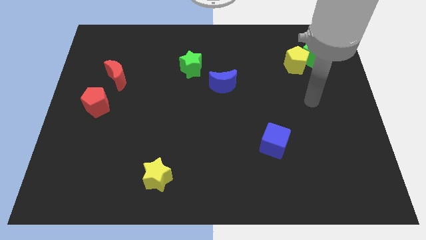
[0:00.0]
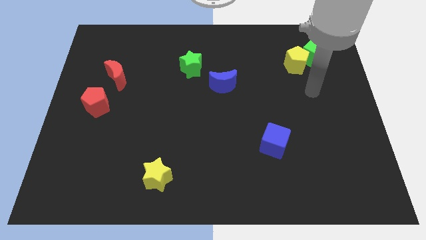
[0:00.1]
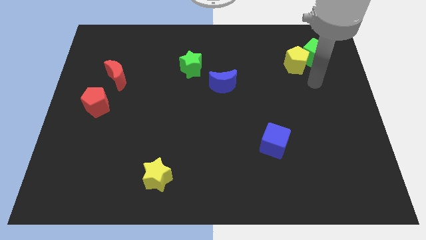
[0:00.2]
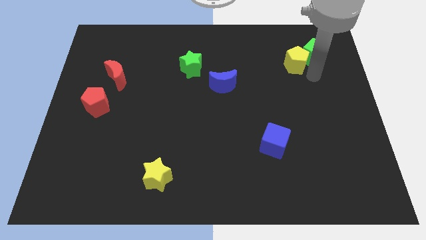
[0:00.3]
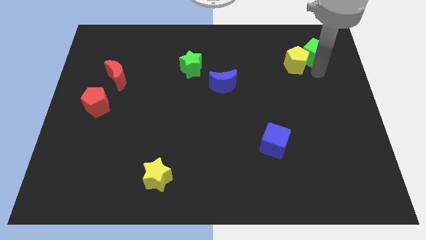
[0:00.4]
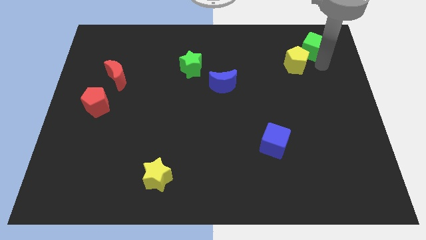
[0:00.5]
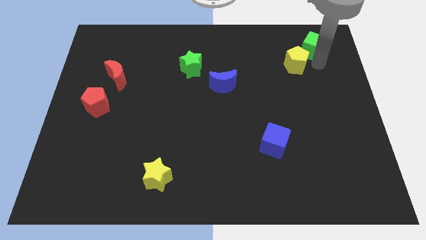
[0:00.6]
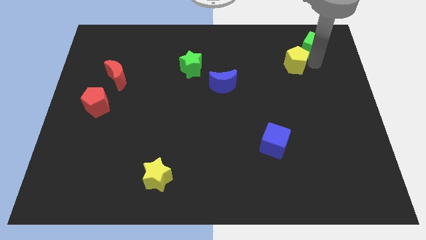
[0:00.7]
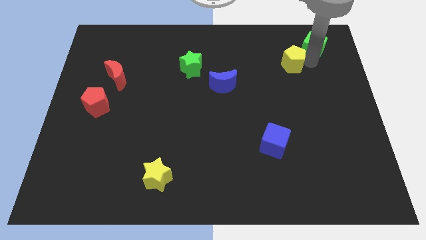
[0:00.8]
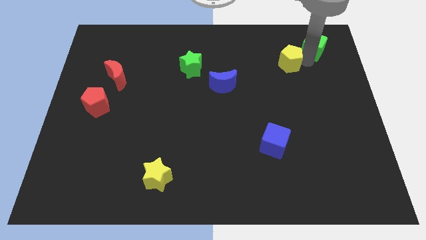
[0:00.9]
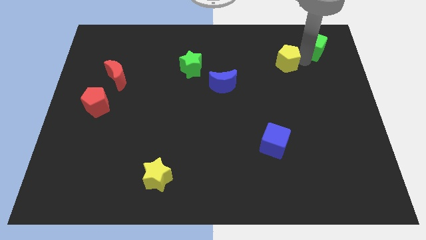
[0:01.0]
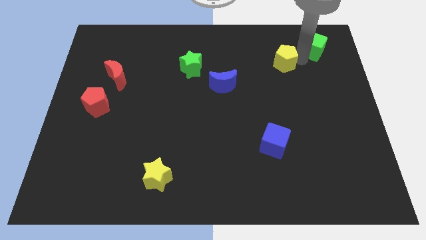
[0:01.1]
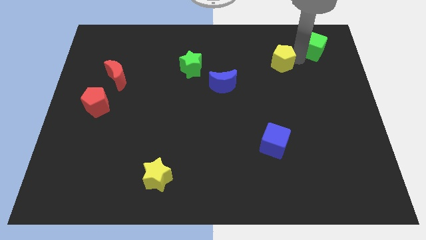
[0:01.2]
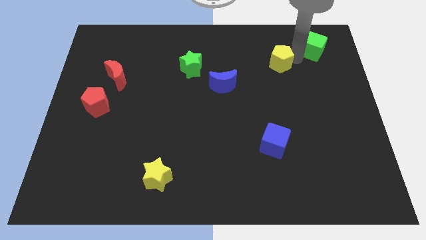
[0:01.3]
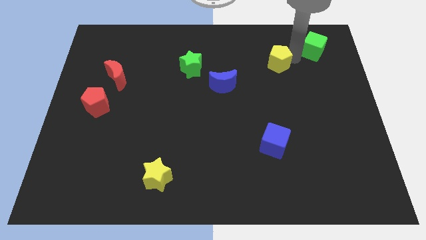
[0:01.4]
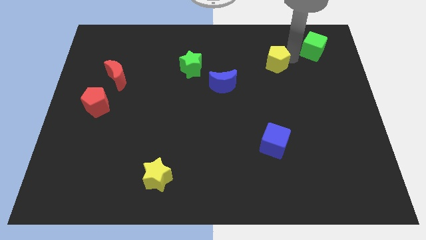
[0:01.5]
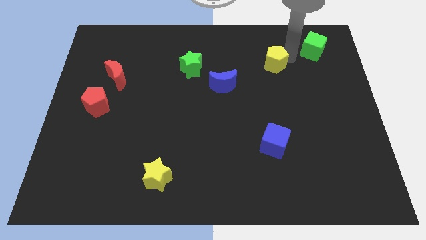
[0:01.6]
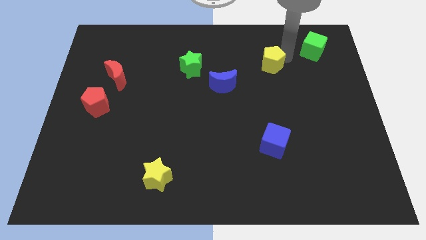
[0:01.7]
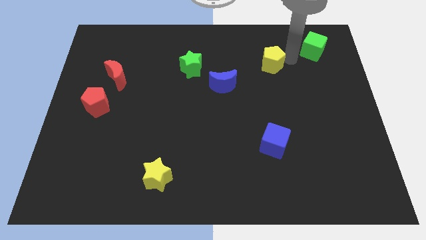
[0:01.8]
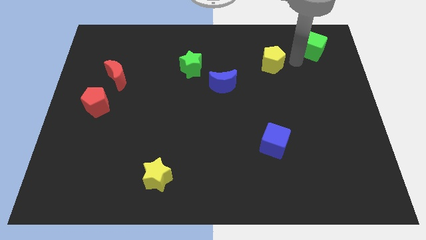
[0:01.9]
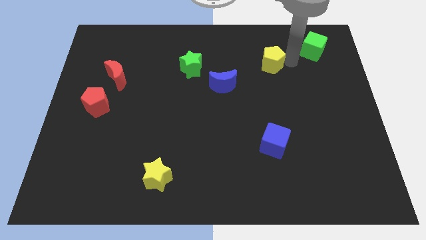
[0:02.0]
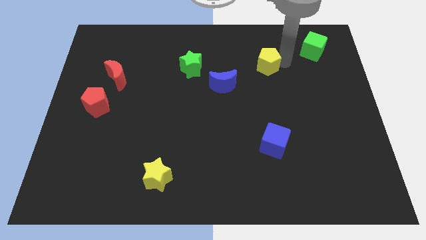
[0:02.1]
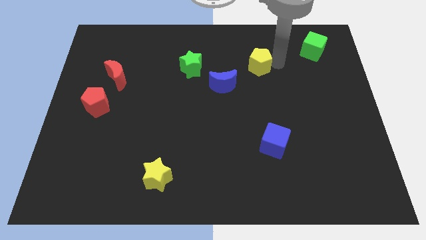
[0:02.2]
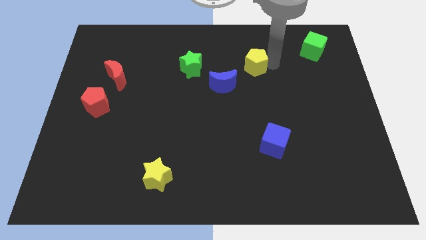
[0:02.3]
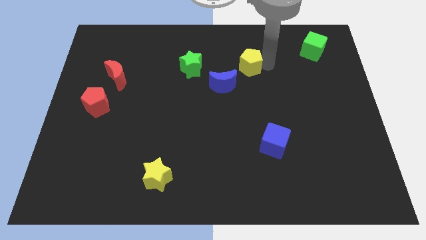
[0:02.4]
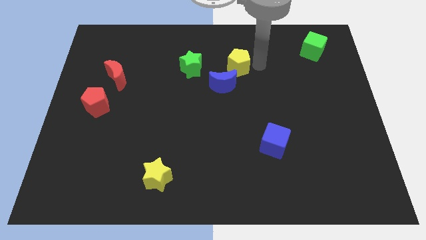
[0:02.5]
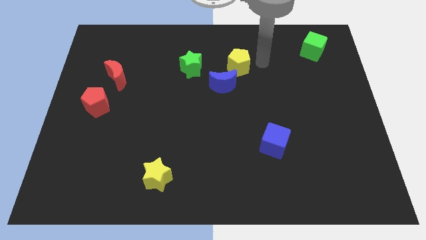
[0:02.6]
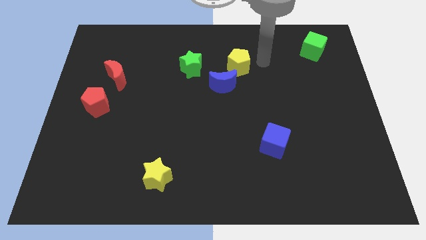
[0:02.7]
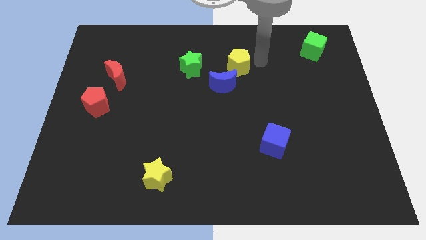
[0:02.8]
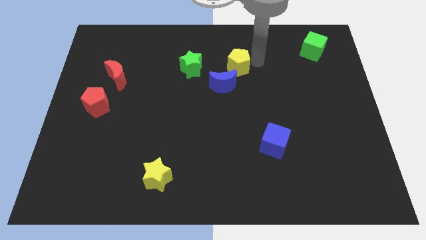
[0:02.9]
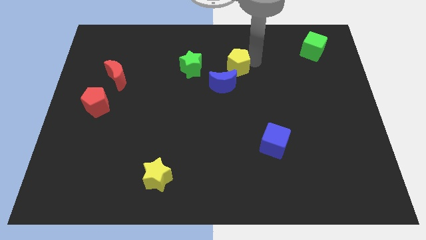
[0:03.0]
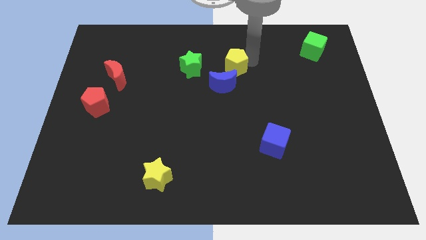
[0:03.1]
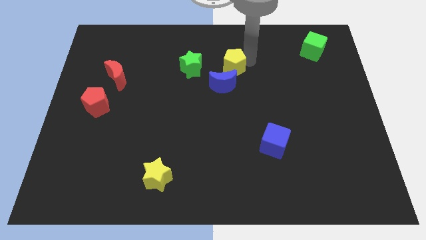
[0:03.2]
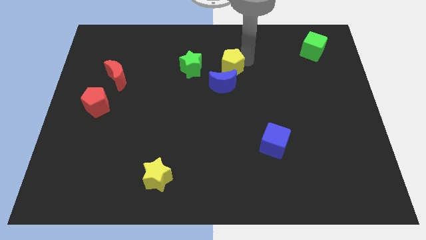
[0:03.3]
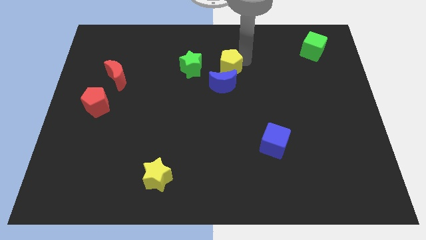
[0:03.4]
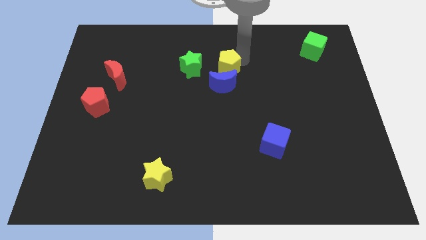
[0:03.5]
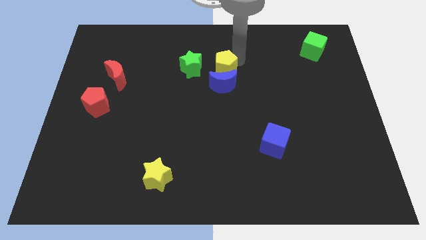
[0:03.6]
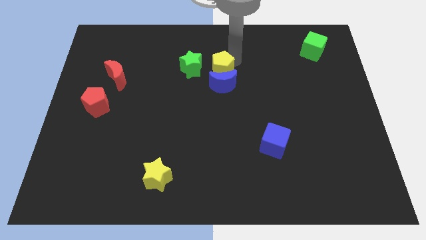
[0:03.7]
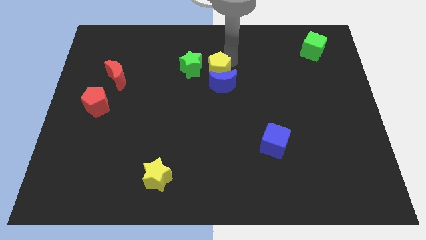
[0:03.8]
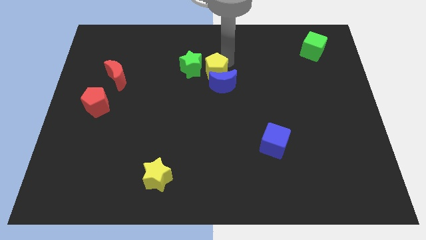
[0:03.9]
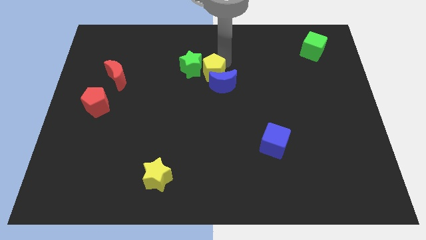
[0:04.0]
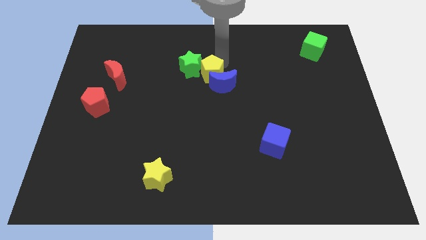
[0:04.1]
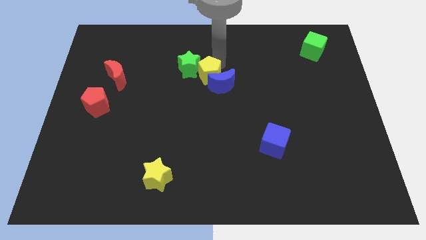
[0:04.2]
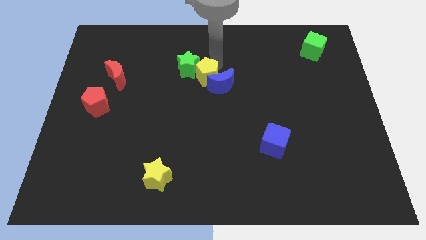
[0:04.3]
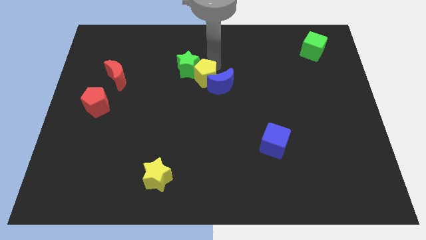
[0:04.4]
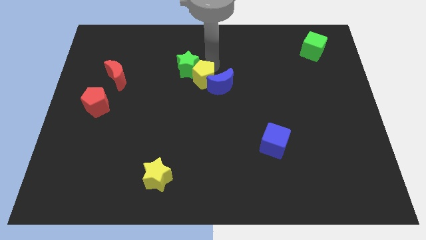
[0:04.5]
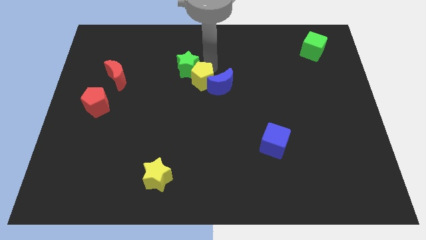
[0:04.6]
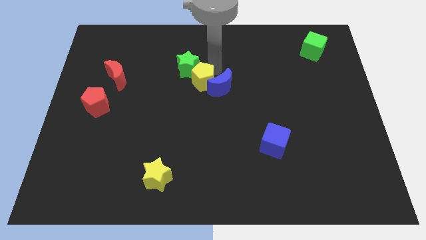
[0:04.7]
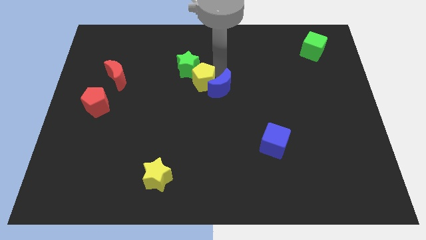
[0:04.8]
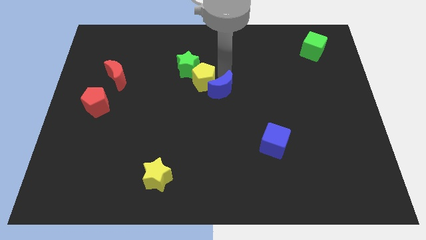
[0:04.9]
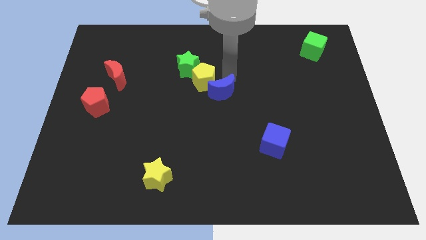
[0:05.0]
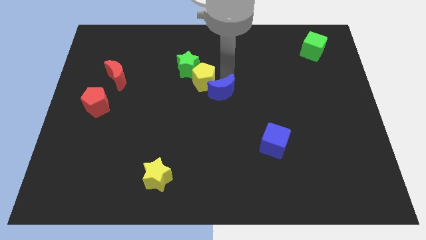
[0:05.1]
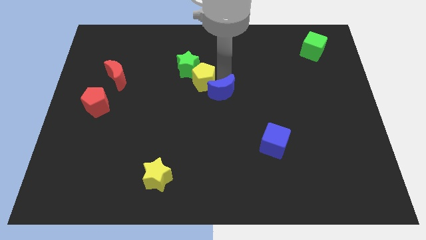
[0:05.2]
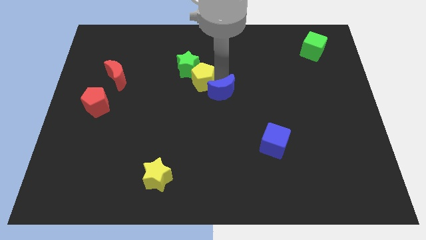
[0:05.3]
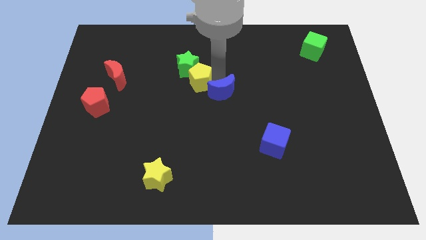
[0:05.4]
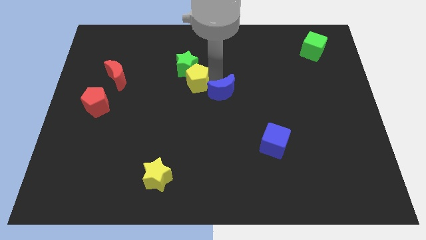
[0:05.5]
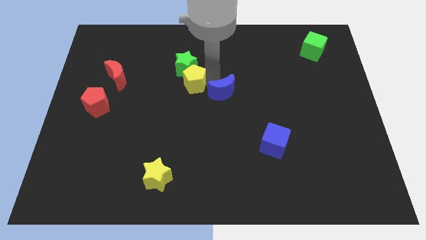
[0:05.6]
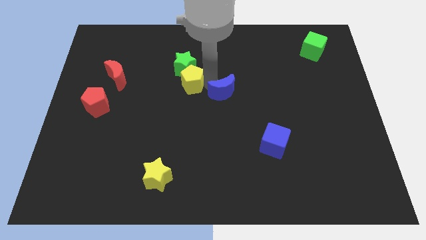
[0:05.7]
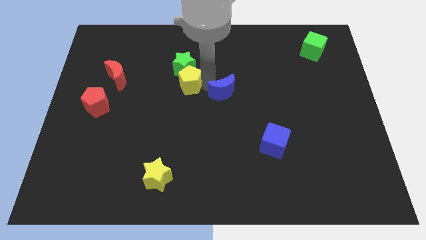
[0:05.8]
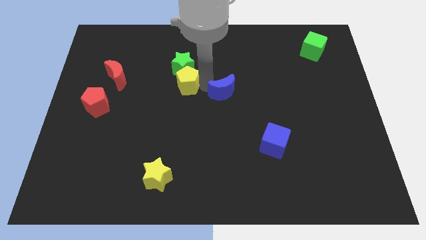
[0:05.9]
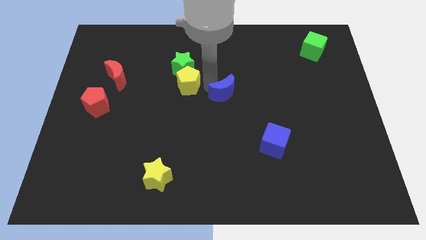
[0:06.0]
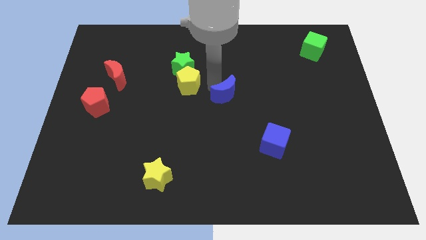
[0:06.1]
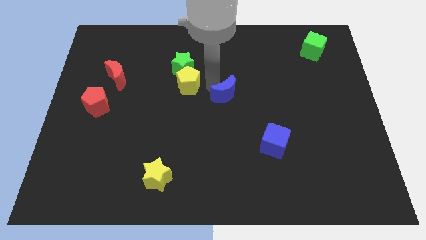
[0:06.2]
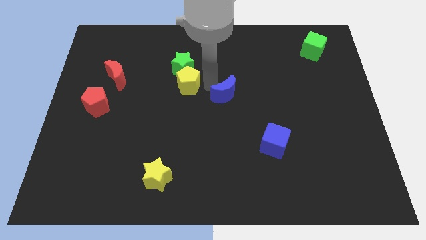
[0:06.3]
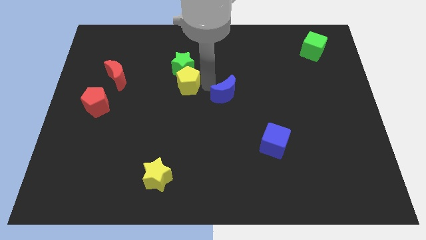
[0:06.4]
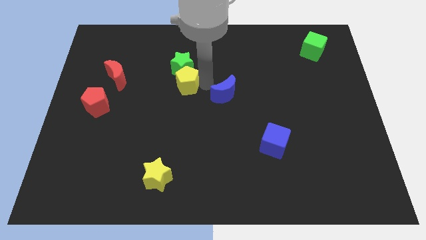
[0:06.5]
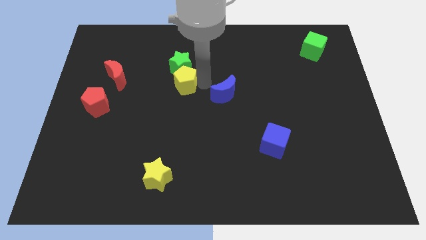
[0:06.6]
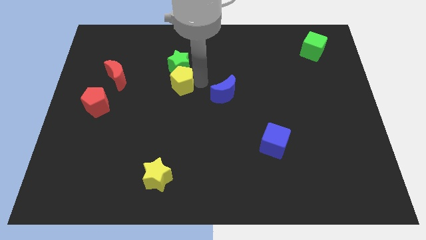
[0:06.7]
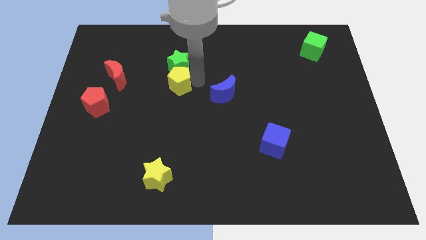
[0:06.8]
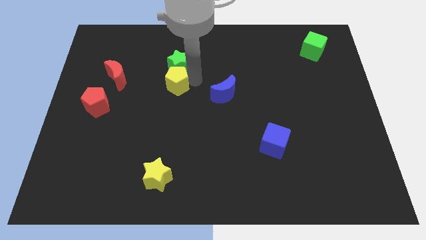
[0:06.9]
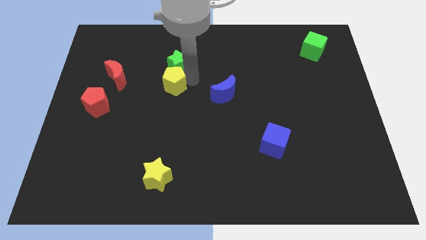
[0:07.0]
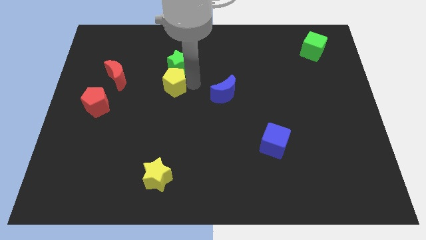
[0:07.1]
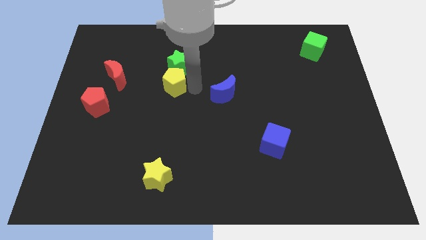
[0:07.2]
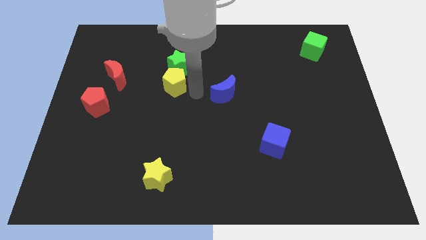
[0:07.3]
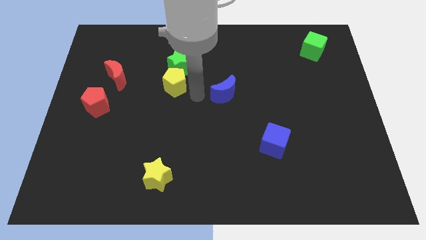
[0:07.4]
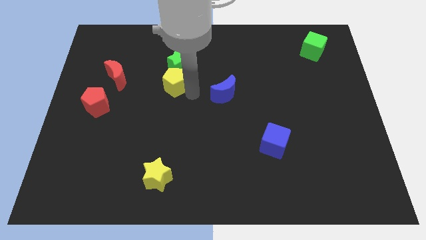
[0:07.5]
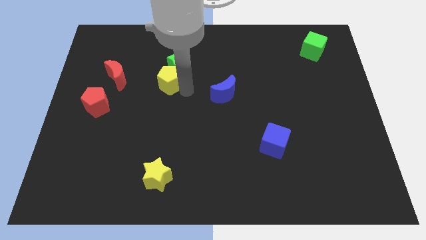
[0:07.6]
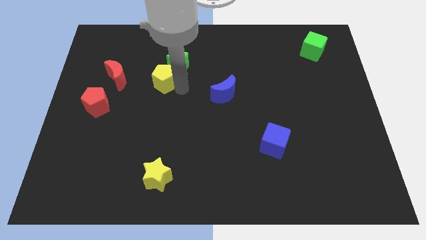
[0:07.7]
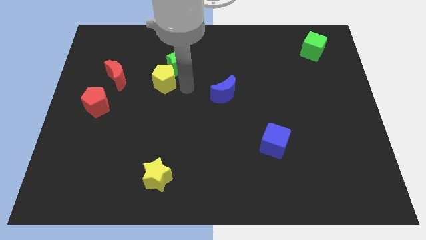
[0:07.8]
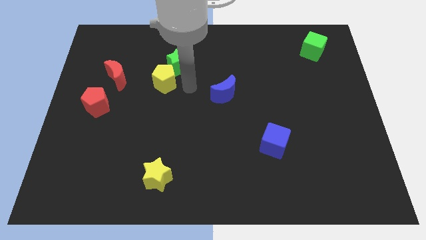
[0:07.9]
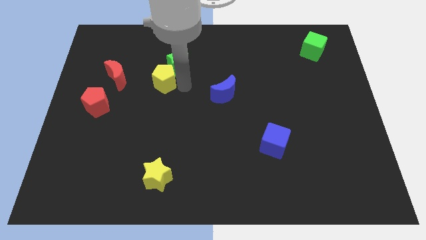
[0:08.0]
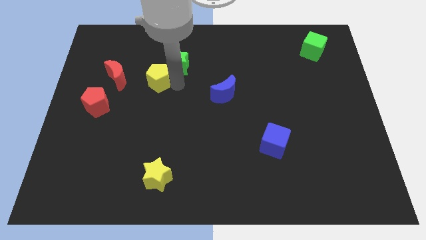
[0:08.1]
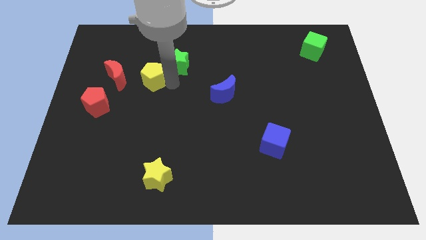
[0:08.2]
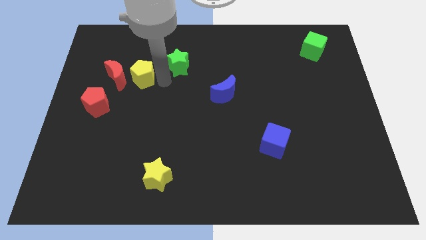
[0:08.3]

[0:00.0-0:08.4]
push the yellow pentagon towards the red moon
